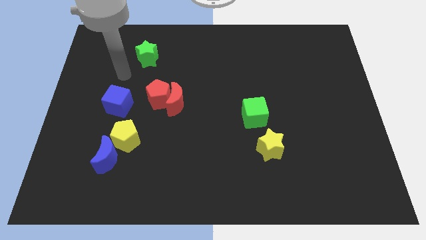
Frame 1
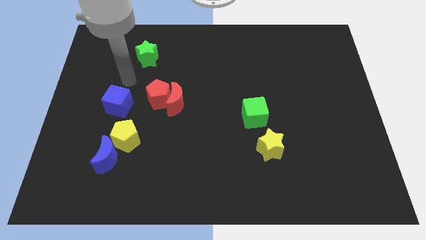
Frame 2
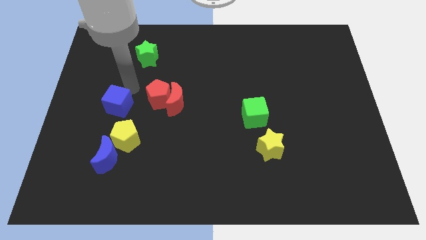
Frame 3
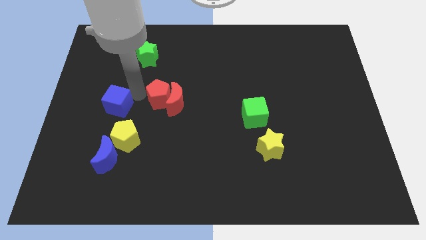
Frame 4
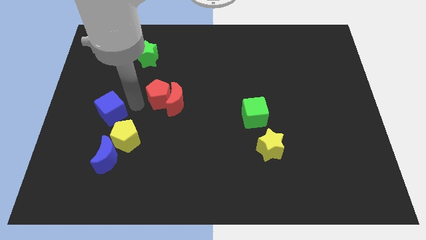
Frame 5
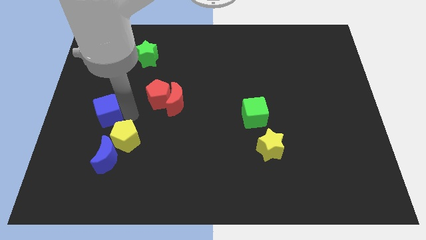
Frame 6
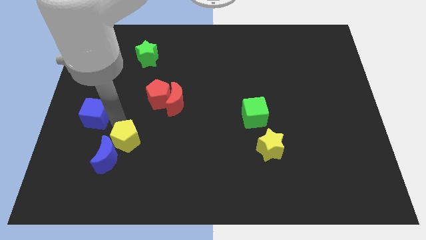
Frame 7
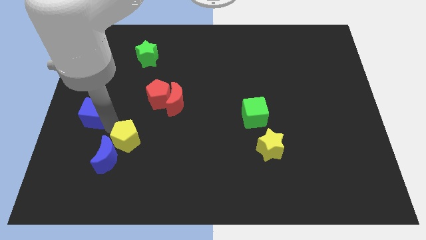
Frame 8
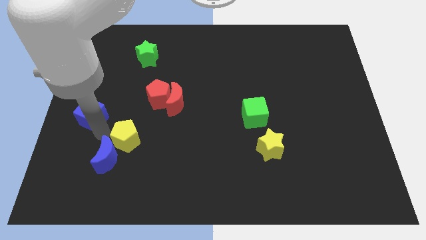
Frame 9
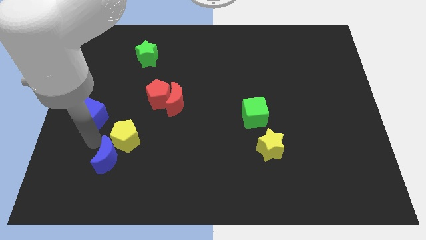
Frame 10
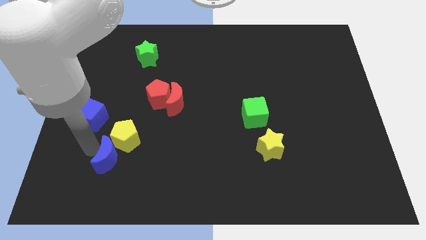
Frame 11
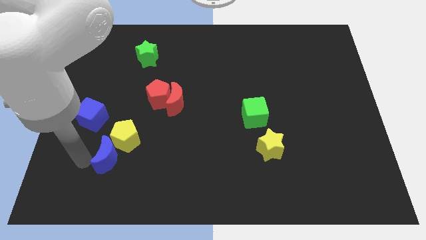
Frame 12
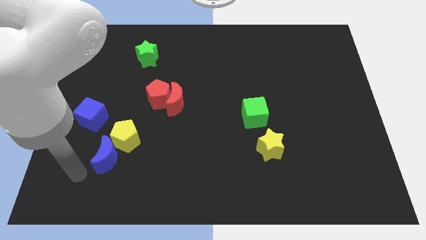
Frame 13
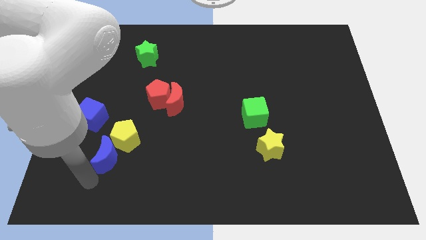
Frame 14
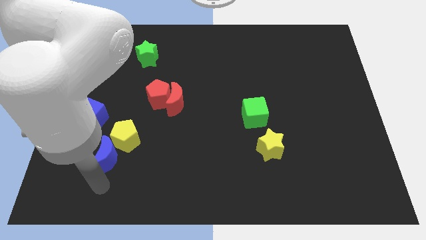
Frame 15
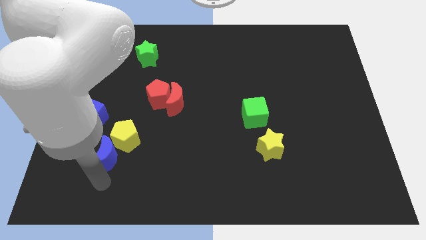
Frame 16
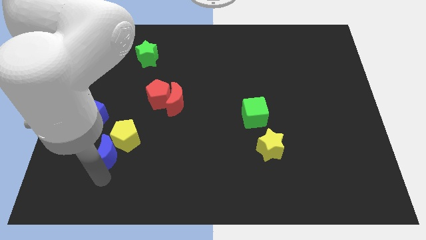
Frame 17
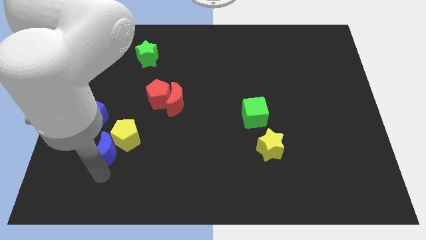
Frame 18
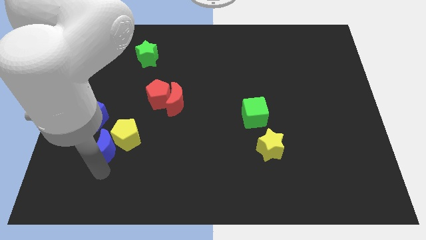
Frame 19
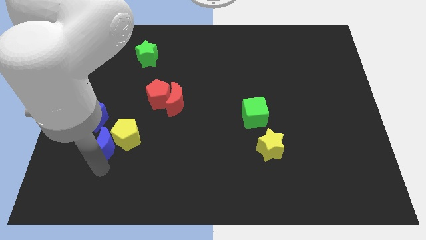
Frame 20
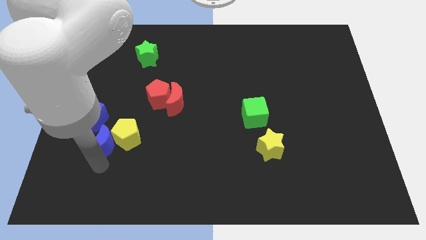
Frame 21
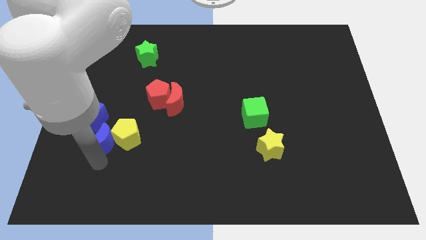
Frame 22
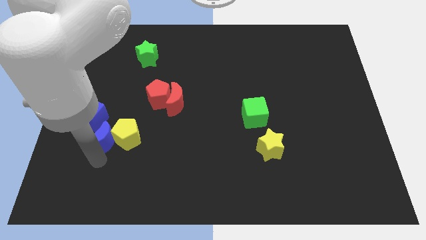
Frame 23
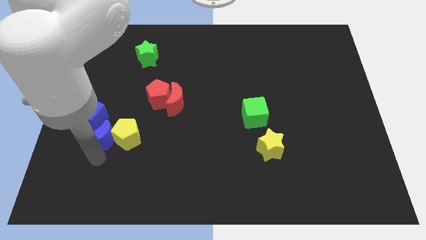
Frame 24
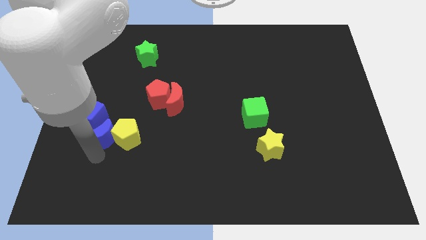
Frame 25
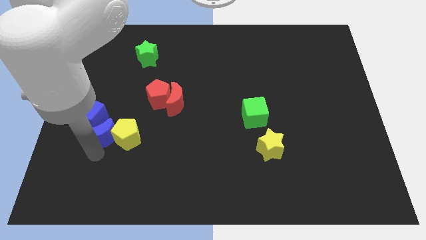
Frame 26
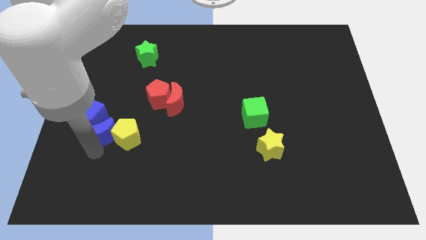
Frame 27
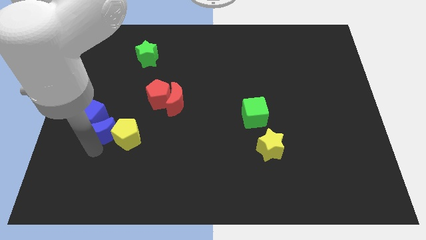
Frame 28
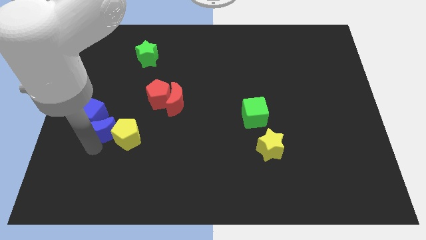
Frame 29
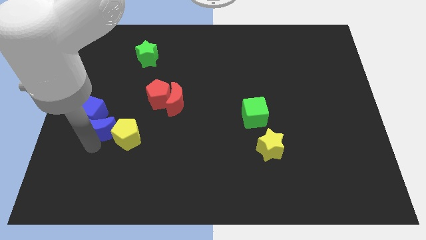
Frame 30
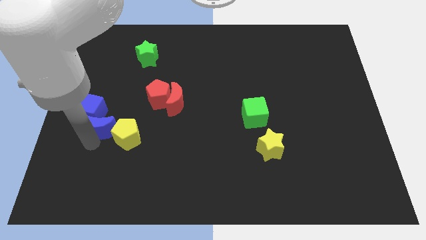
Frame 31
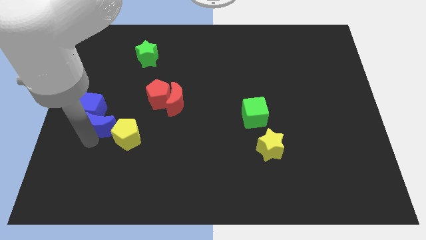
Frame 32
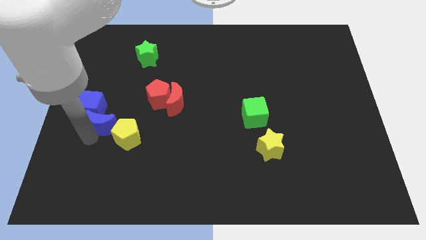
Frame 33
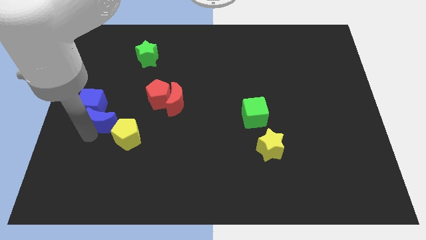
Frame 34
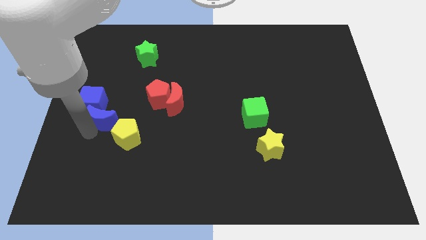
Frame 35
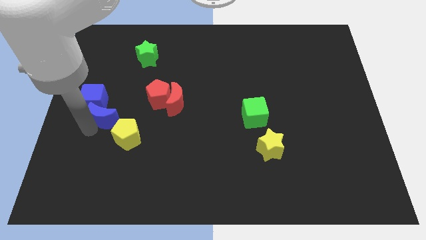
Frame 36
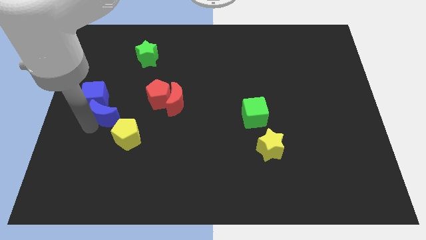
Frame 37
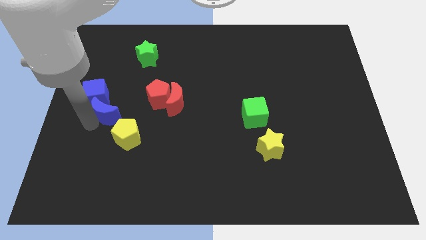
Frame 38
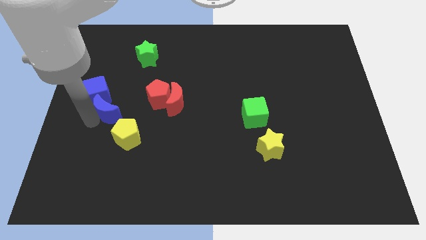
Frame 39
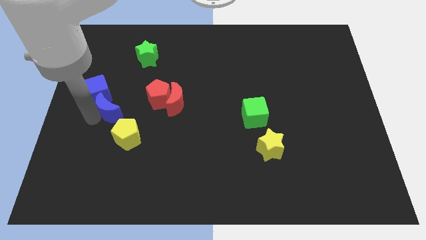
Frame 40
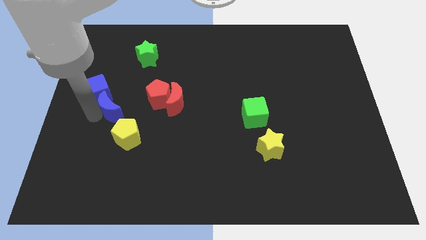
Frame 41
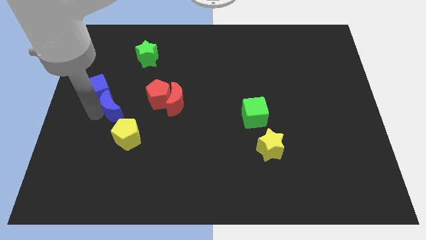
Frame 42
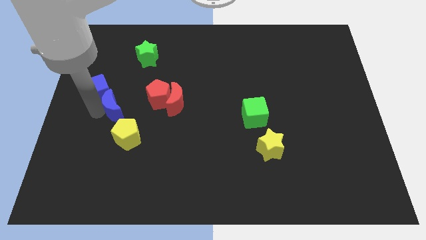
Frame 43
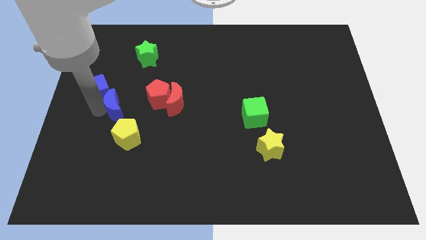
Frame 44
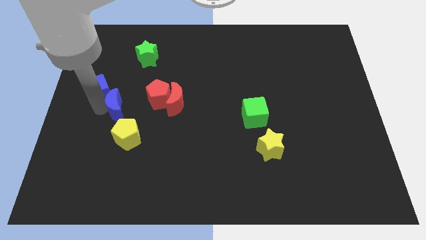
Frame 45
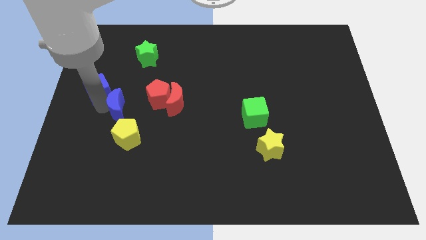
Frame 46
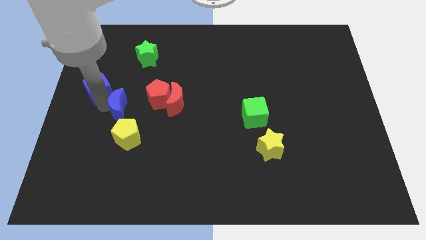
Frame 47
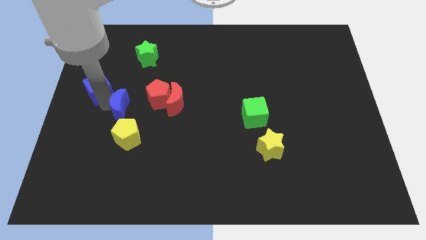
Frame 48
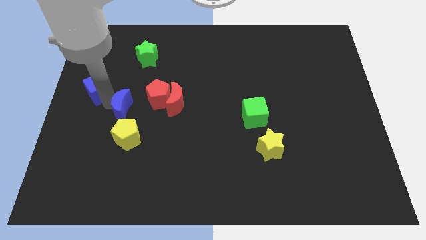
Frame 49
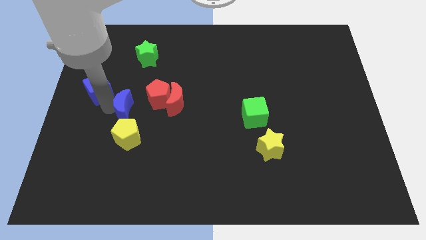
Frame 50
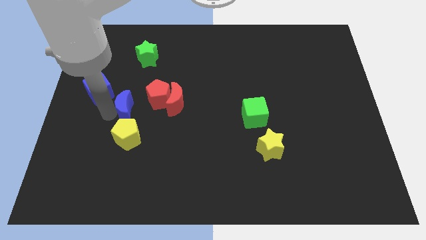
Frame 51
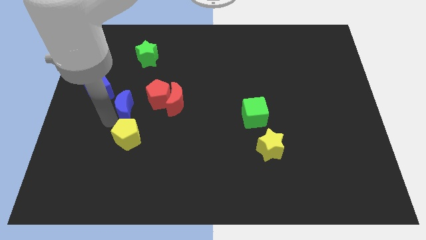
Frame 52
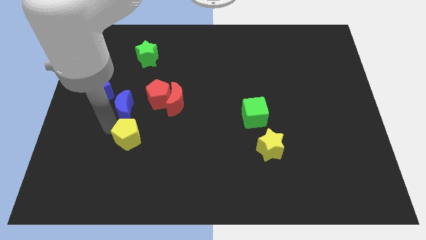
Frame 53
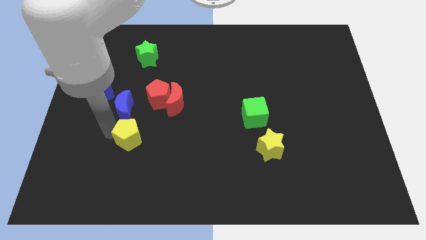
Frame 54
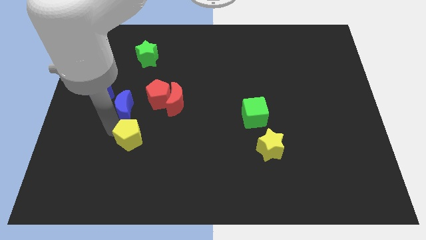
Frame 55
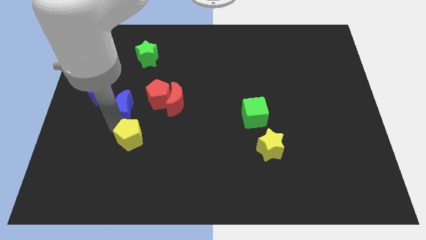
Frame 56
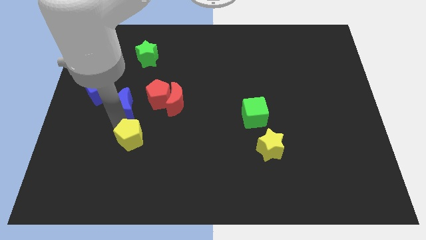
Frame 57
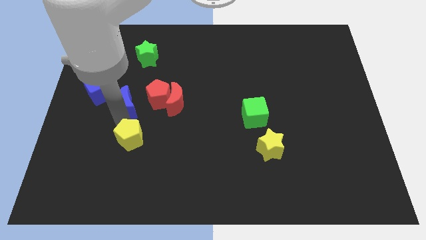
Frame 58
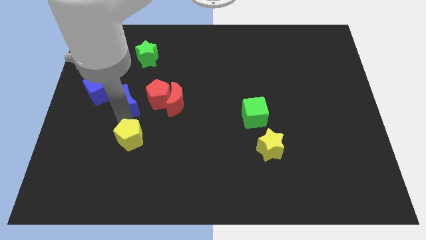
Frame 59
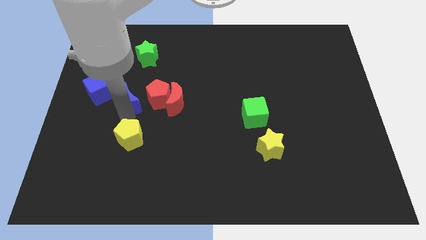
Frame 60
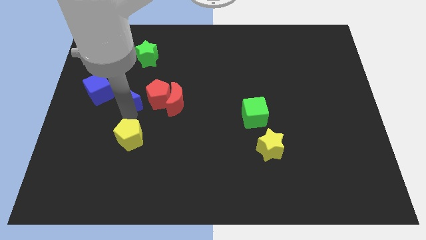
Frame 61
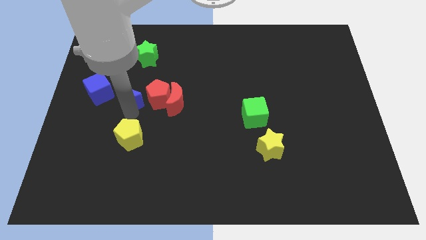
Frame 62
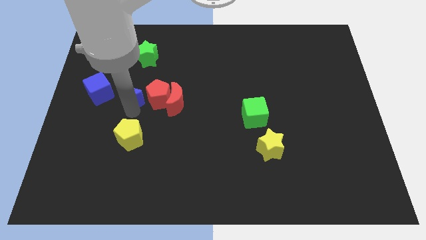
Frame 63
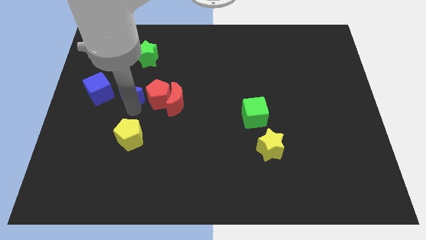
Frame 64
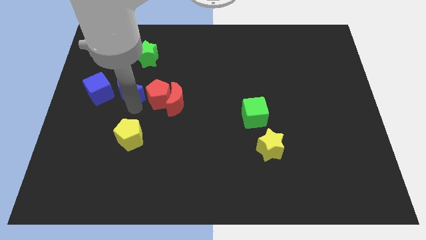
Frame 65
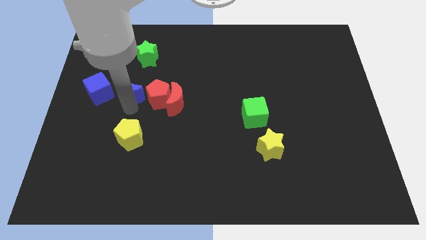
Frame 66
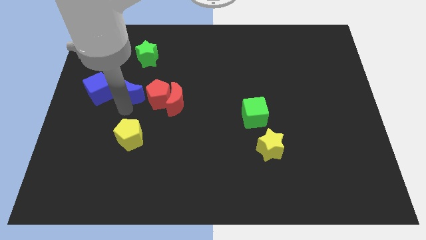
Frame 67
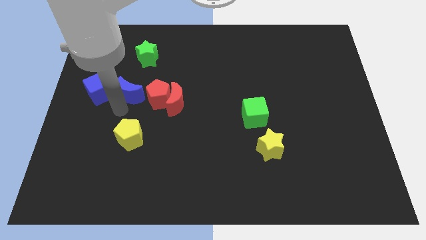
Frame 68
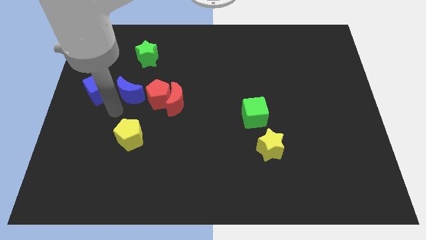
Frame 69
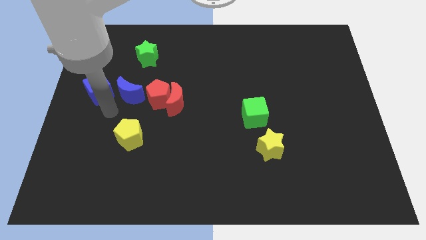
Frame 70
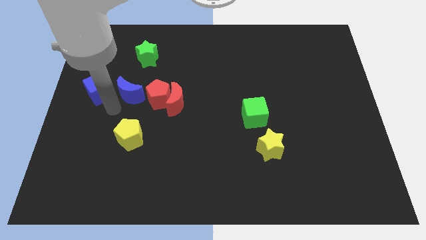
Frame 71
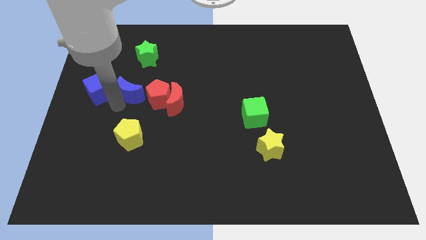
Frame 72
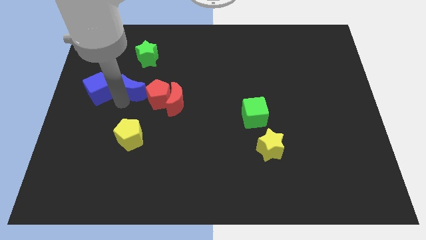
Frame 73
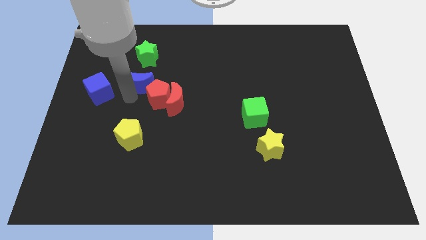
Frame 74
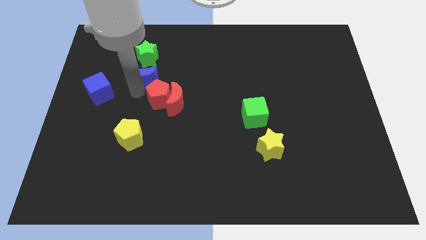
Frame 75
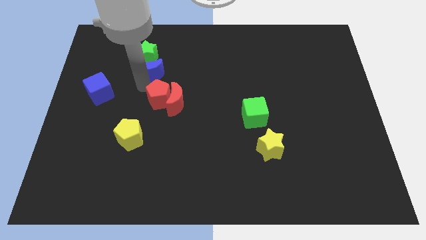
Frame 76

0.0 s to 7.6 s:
move the blue moon towards the green star

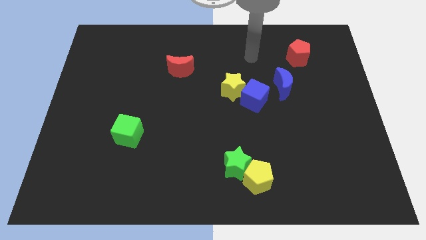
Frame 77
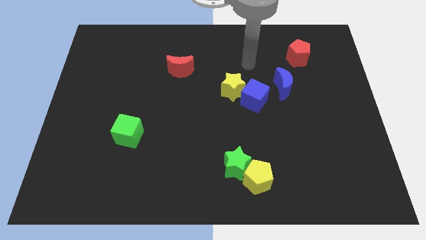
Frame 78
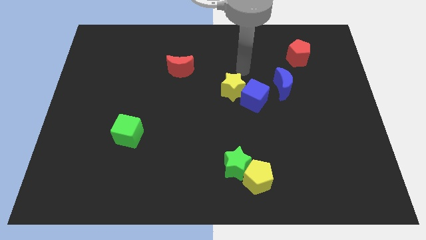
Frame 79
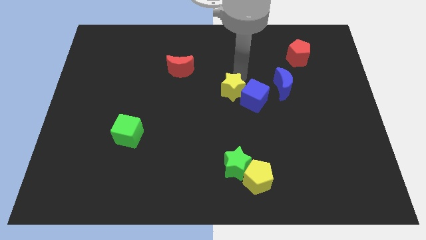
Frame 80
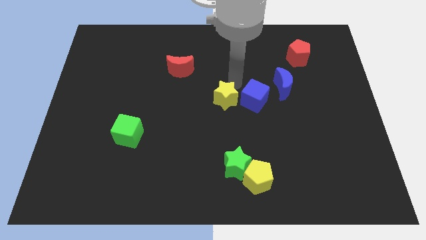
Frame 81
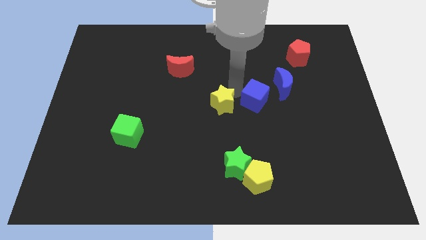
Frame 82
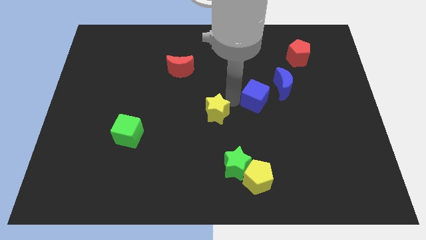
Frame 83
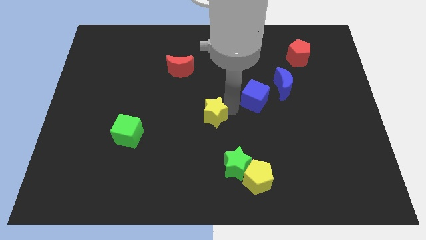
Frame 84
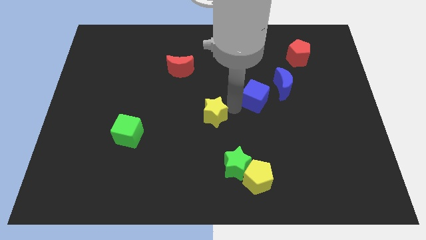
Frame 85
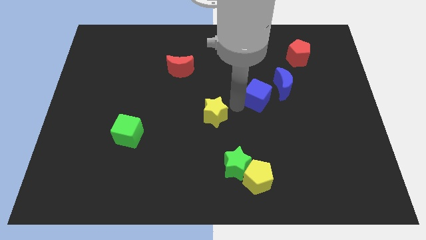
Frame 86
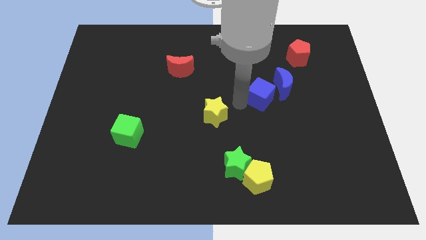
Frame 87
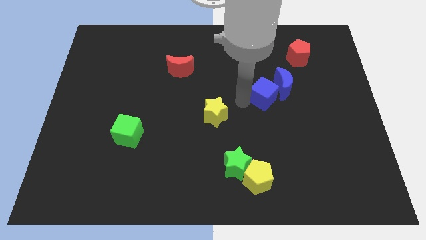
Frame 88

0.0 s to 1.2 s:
move the blue cube towards the blue moon
